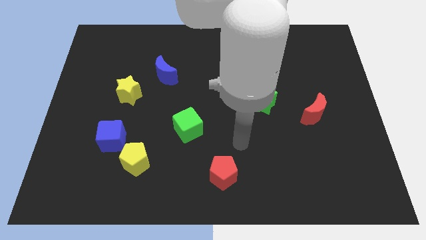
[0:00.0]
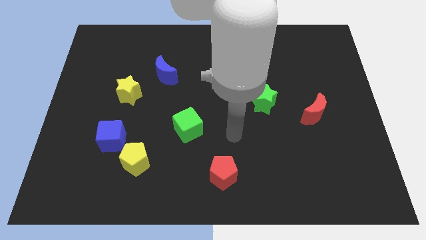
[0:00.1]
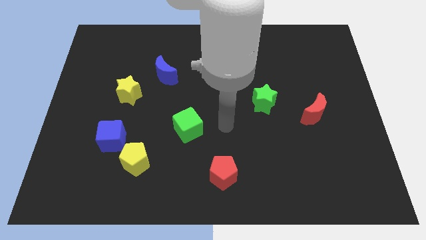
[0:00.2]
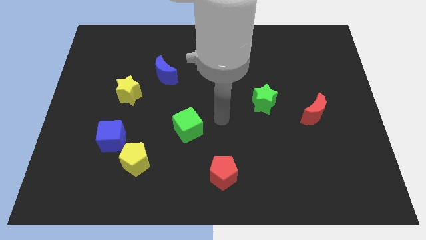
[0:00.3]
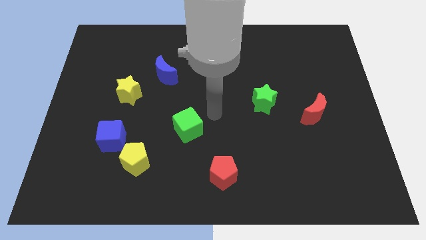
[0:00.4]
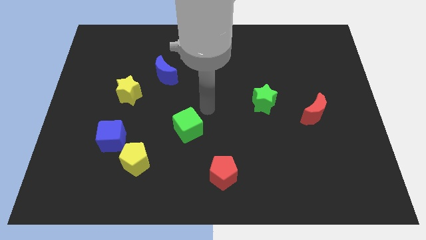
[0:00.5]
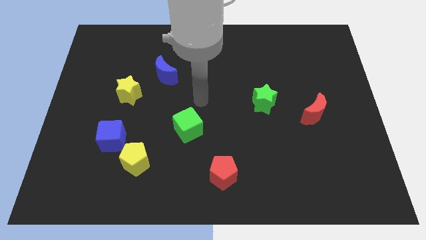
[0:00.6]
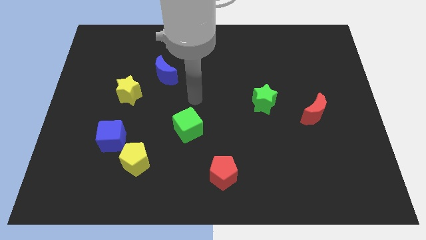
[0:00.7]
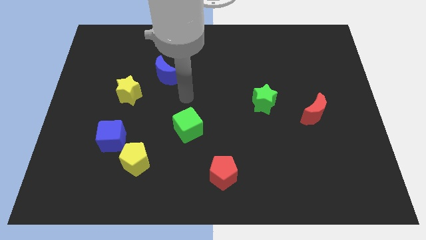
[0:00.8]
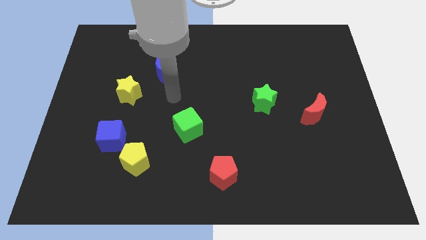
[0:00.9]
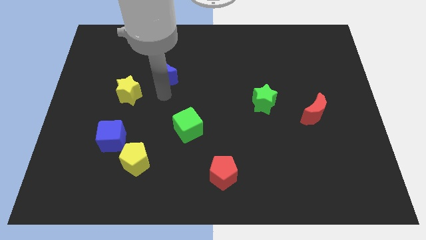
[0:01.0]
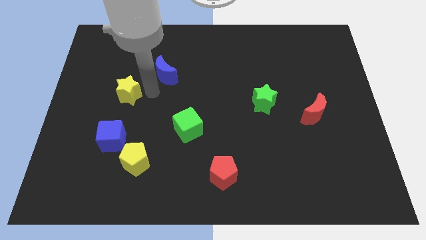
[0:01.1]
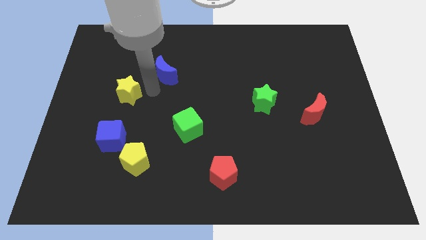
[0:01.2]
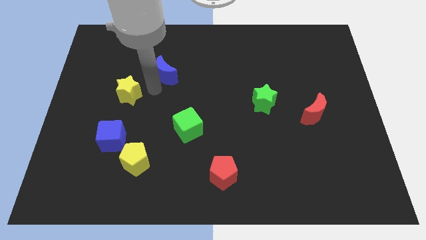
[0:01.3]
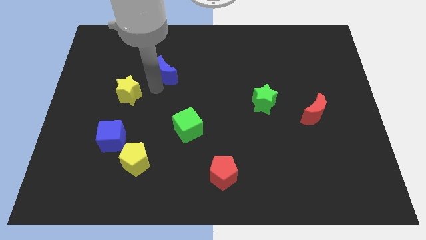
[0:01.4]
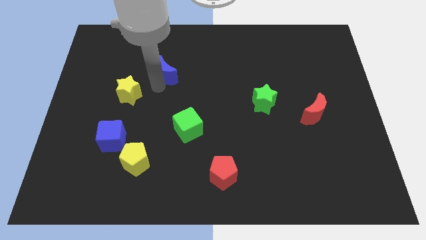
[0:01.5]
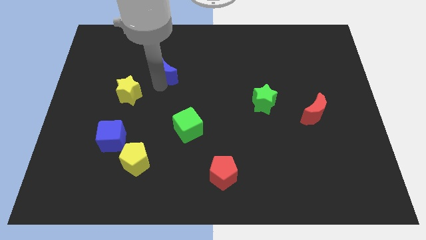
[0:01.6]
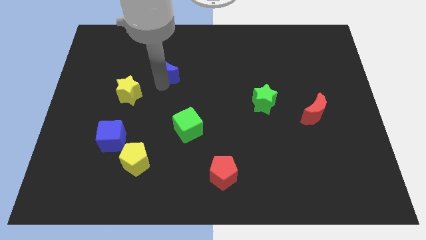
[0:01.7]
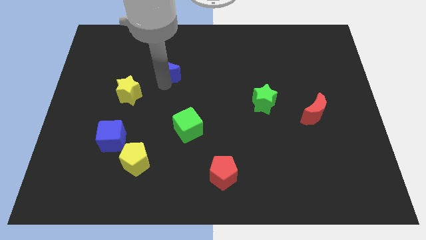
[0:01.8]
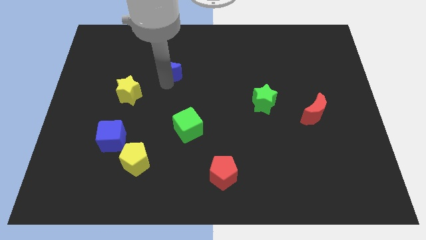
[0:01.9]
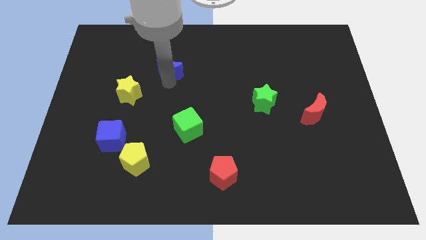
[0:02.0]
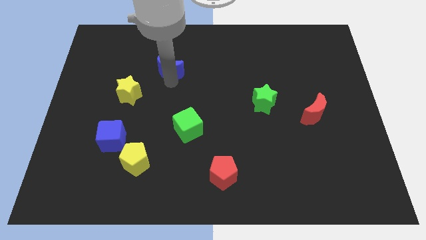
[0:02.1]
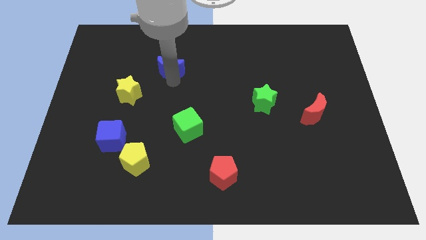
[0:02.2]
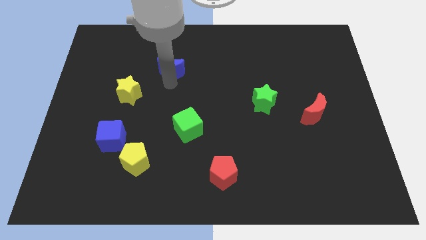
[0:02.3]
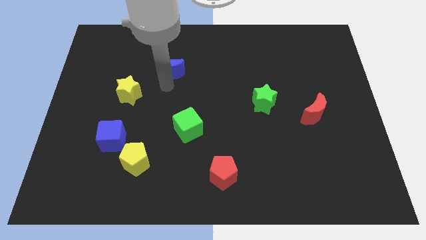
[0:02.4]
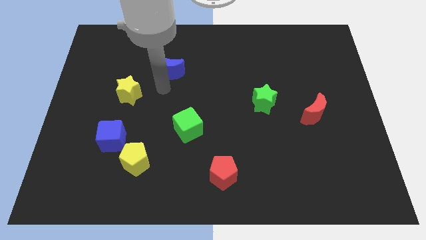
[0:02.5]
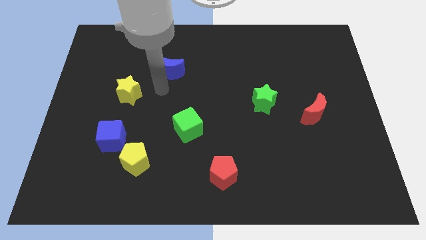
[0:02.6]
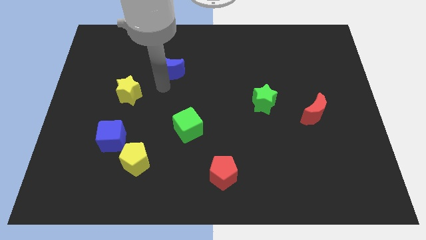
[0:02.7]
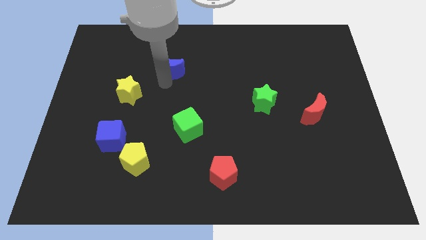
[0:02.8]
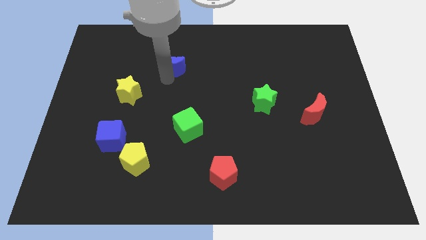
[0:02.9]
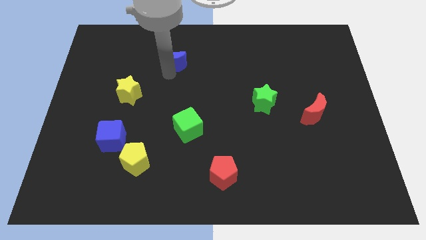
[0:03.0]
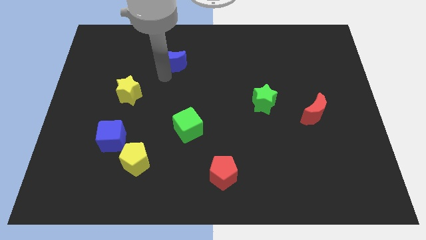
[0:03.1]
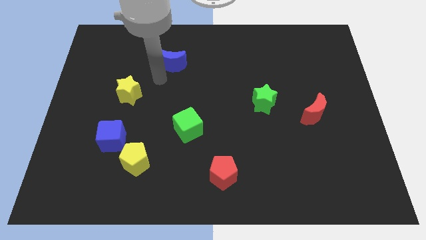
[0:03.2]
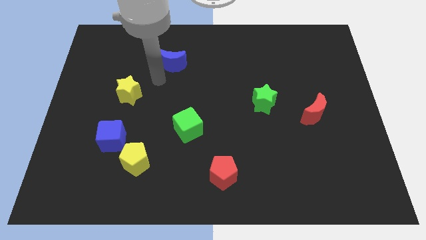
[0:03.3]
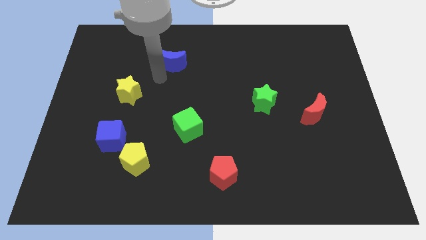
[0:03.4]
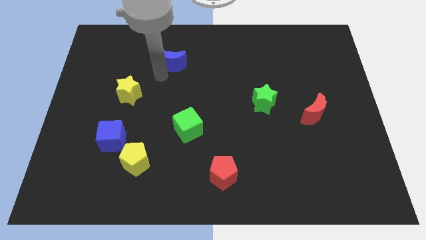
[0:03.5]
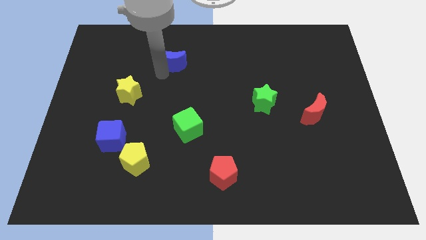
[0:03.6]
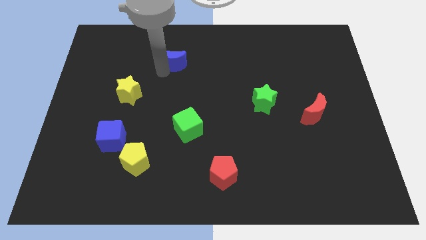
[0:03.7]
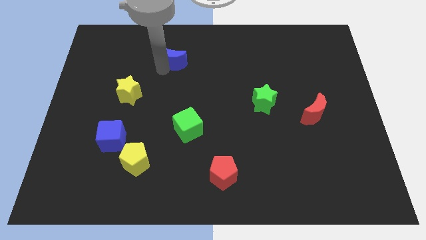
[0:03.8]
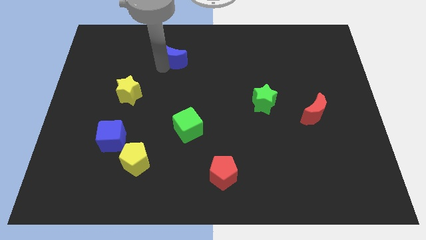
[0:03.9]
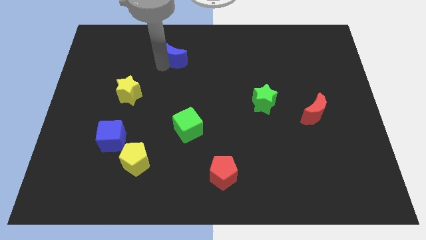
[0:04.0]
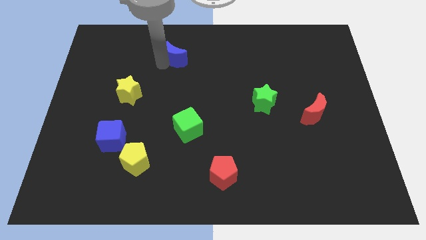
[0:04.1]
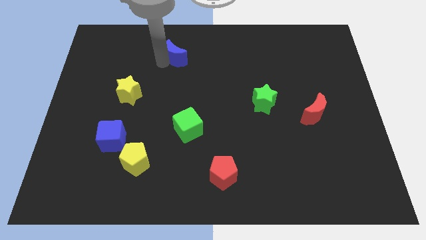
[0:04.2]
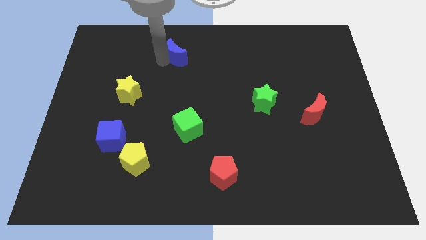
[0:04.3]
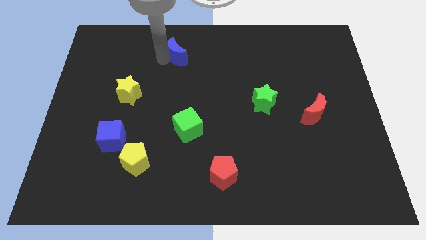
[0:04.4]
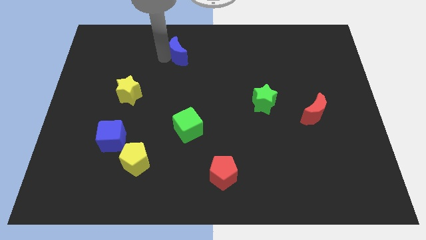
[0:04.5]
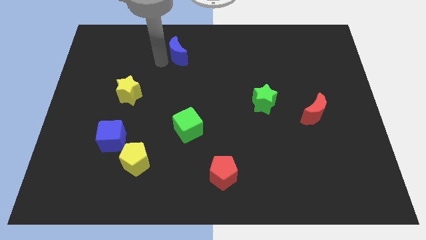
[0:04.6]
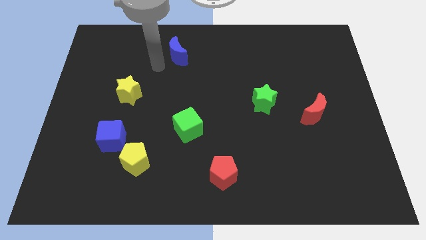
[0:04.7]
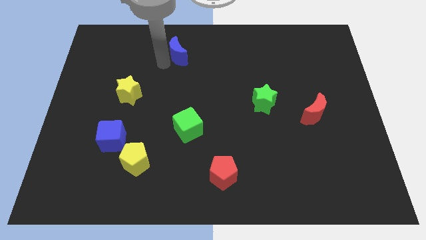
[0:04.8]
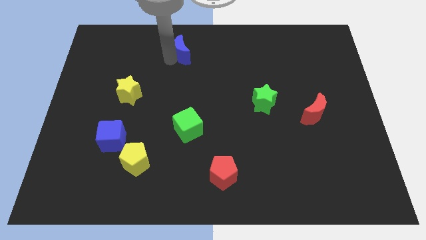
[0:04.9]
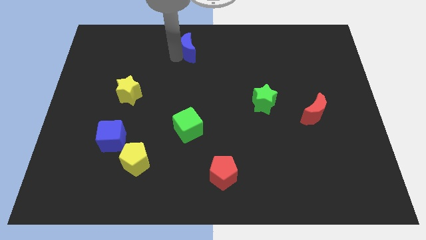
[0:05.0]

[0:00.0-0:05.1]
move the blue moon to the top

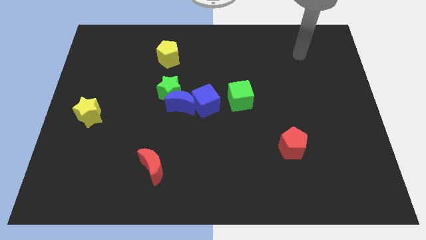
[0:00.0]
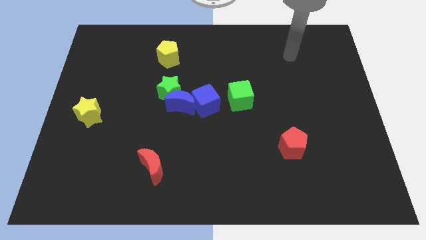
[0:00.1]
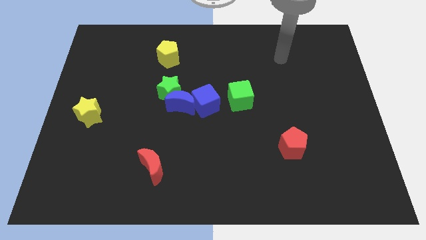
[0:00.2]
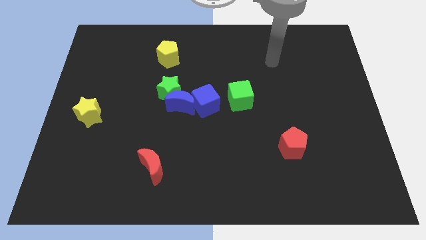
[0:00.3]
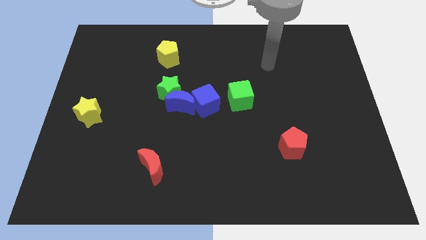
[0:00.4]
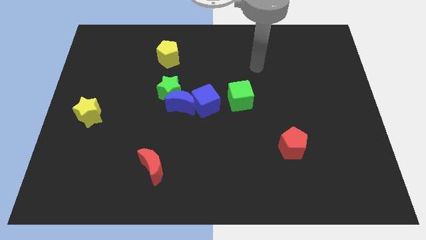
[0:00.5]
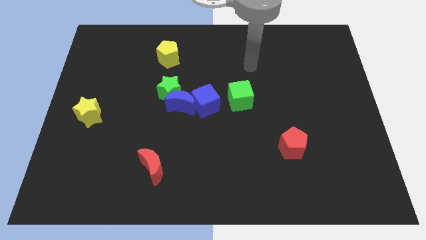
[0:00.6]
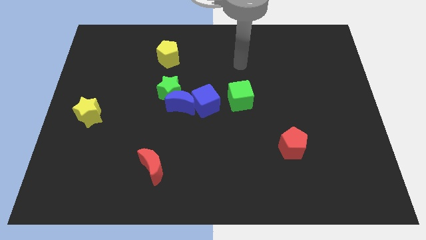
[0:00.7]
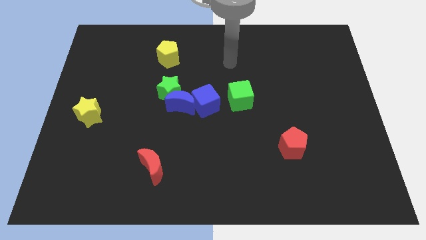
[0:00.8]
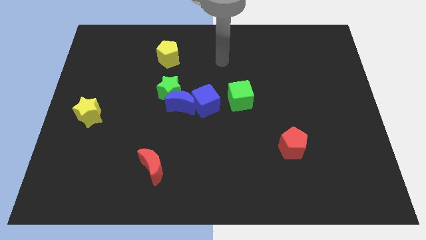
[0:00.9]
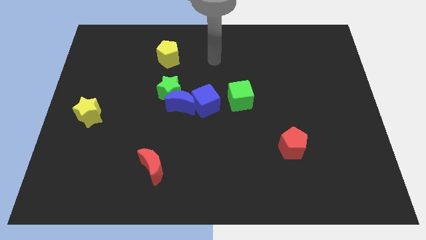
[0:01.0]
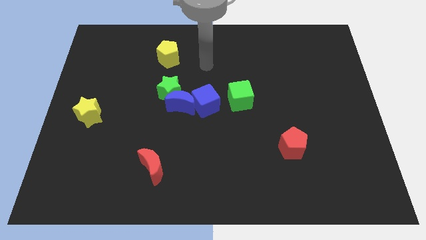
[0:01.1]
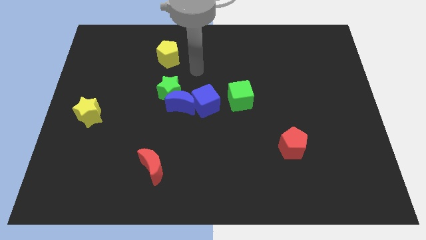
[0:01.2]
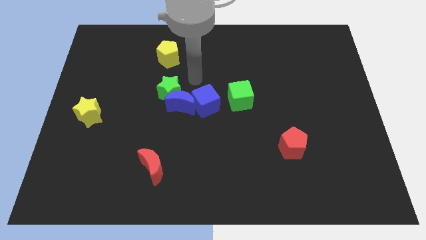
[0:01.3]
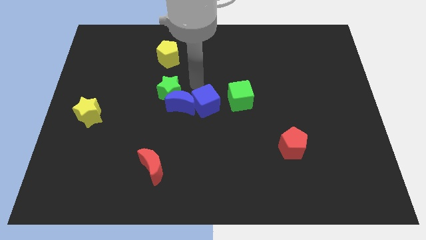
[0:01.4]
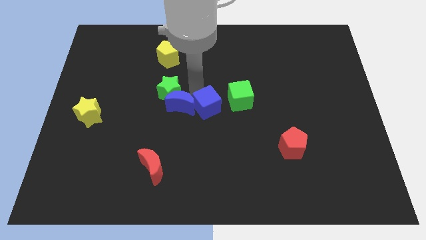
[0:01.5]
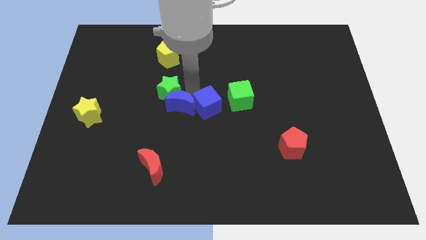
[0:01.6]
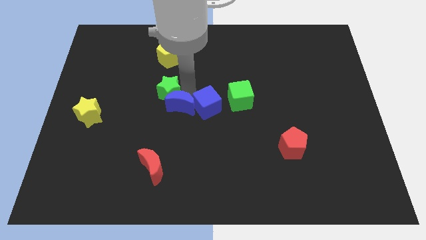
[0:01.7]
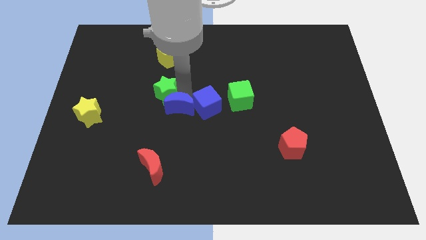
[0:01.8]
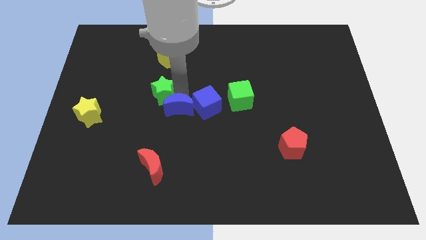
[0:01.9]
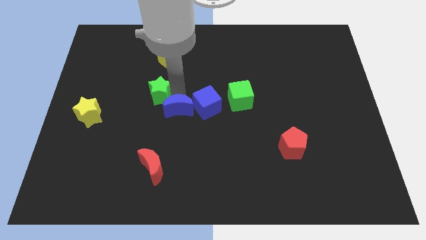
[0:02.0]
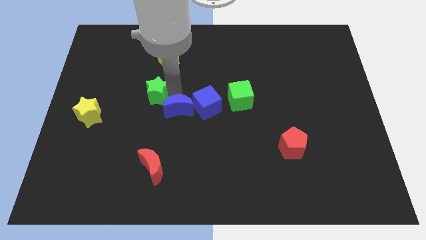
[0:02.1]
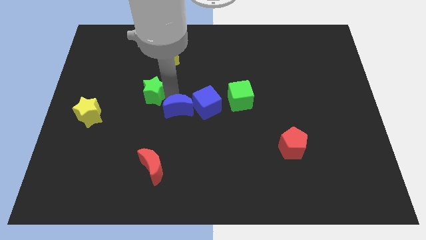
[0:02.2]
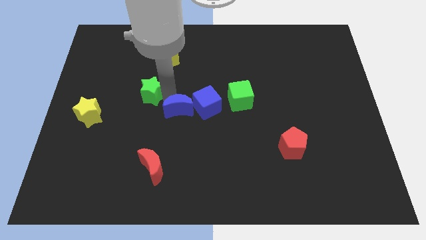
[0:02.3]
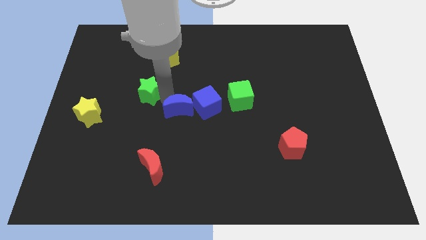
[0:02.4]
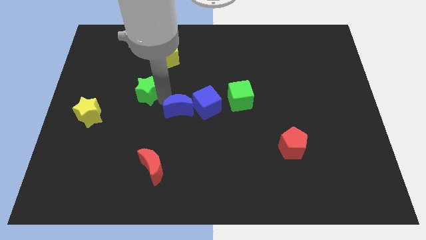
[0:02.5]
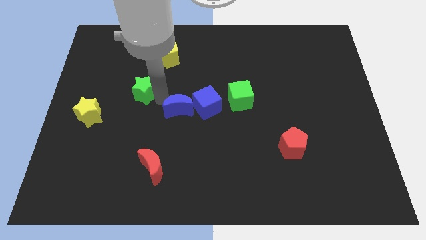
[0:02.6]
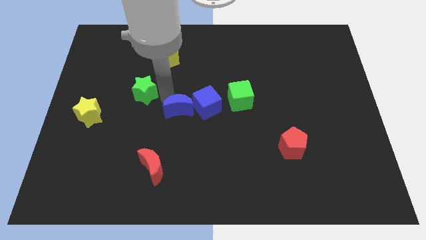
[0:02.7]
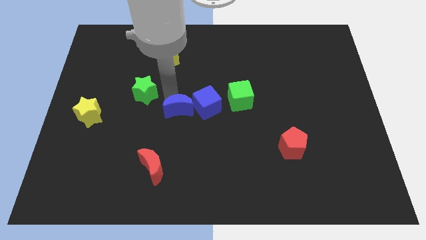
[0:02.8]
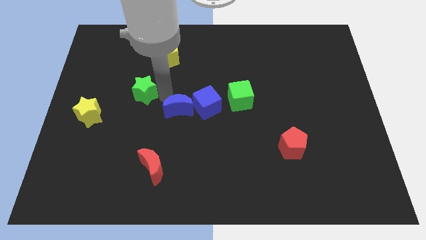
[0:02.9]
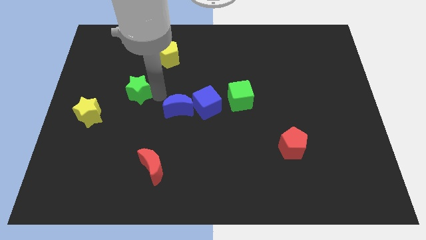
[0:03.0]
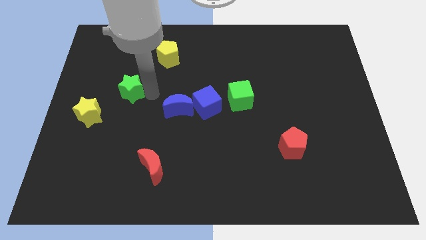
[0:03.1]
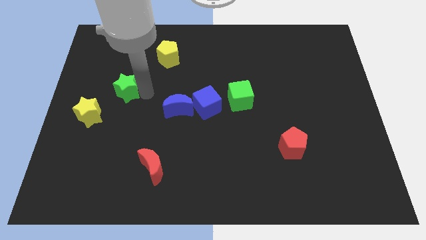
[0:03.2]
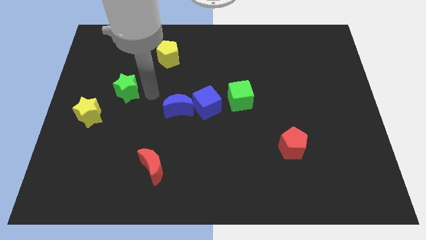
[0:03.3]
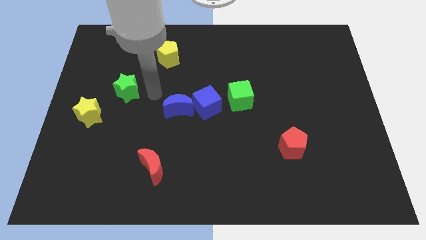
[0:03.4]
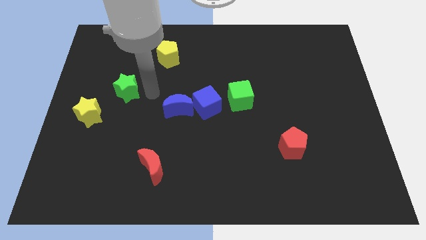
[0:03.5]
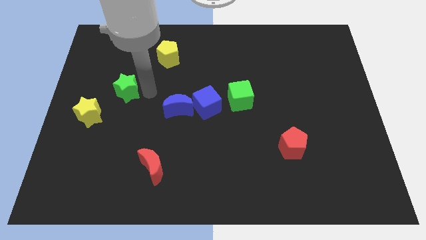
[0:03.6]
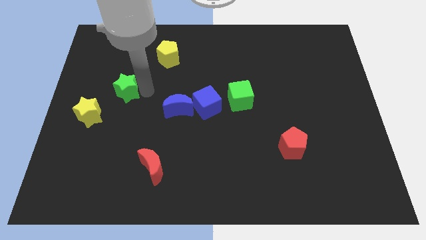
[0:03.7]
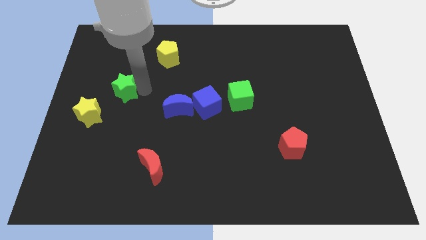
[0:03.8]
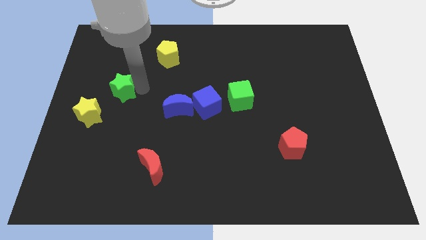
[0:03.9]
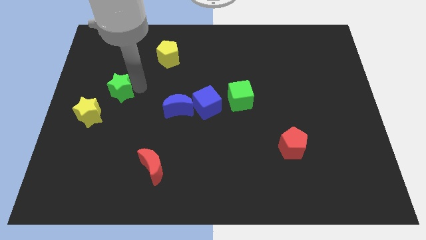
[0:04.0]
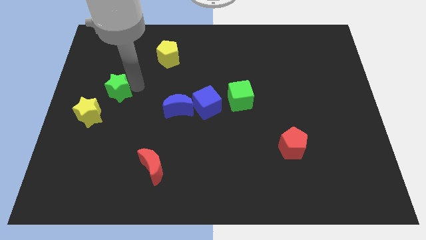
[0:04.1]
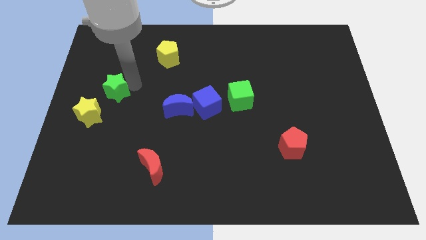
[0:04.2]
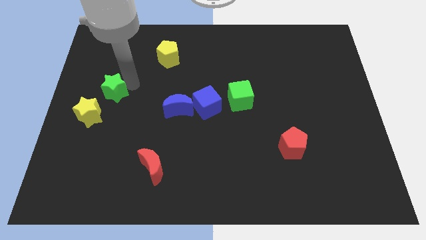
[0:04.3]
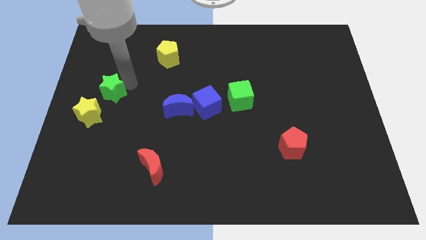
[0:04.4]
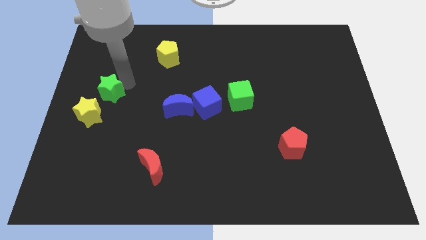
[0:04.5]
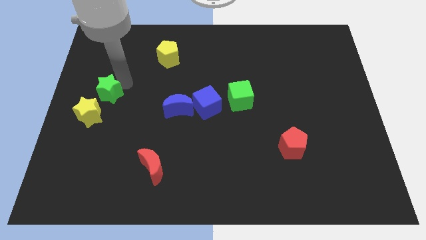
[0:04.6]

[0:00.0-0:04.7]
slide the green star to the center left
